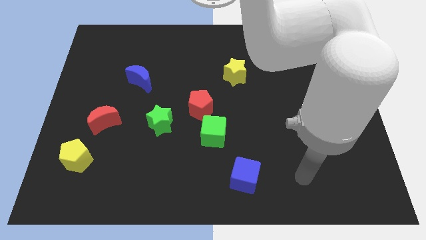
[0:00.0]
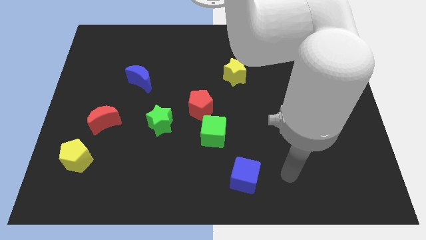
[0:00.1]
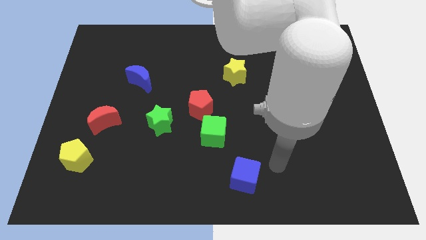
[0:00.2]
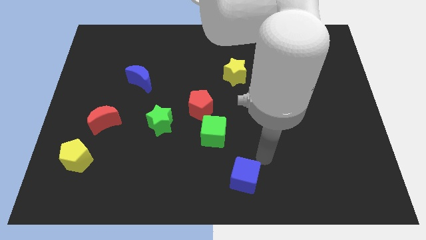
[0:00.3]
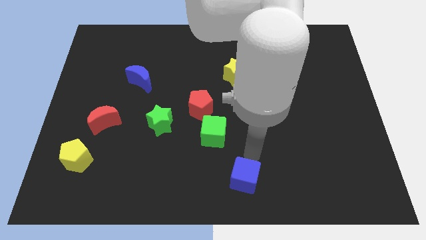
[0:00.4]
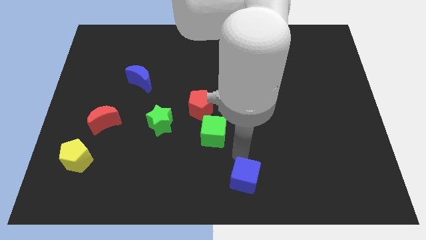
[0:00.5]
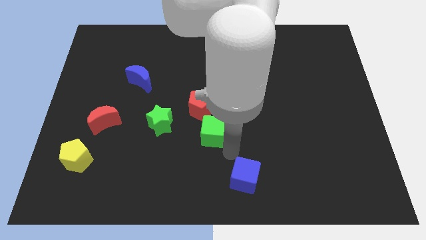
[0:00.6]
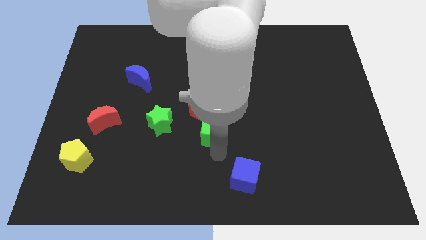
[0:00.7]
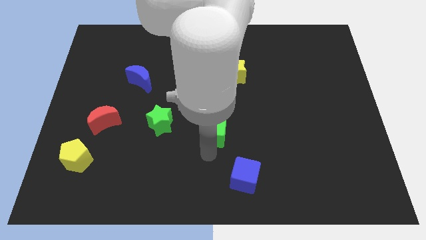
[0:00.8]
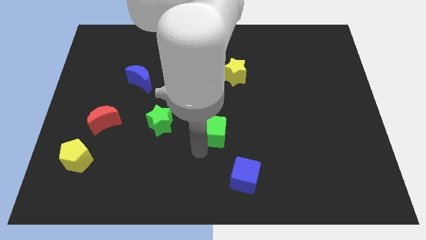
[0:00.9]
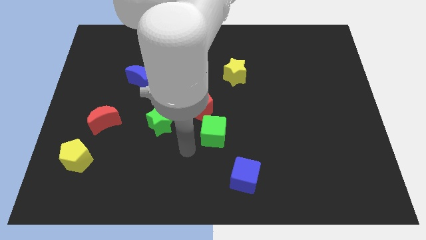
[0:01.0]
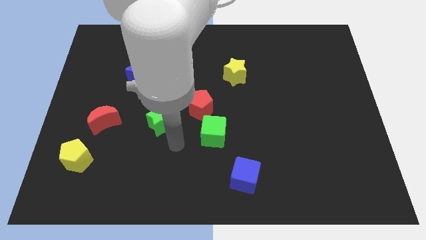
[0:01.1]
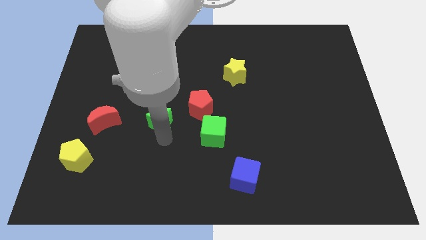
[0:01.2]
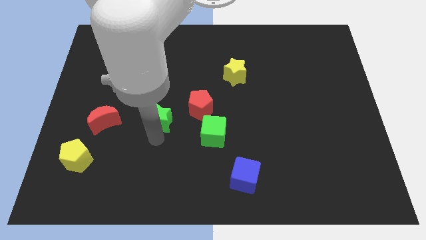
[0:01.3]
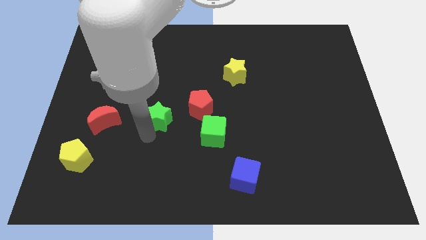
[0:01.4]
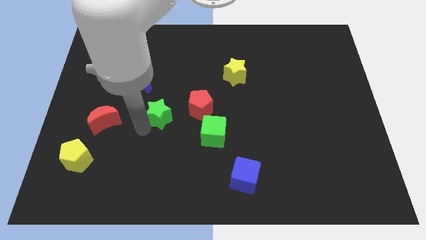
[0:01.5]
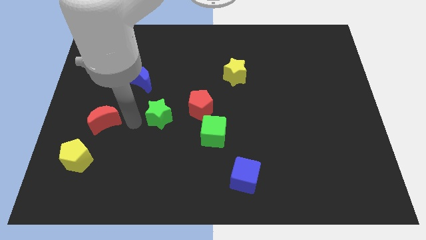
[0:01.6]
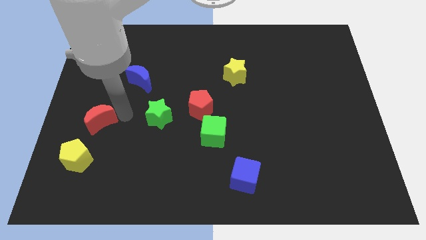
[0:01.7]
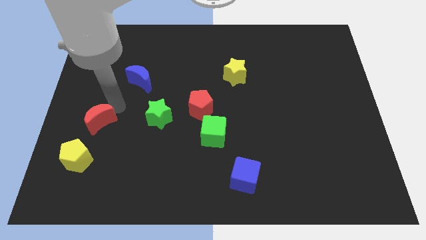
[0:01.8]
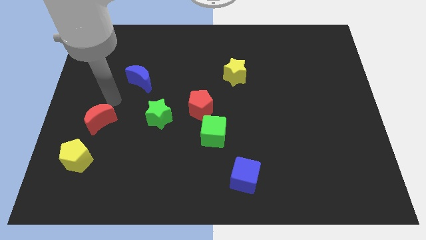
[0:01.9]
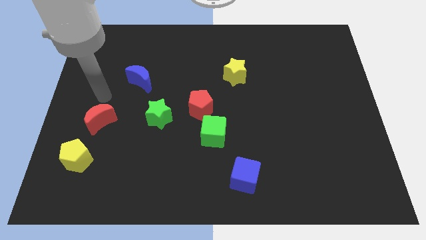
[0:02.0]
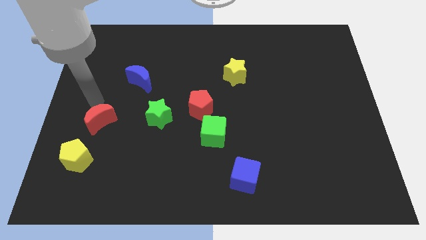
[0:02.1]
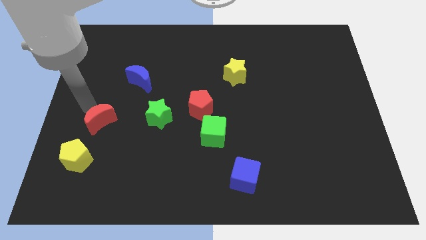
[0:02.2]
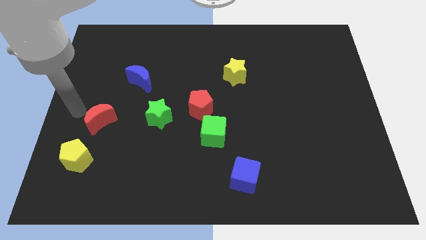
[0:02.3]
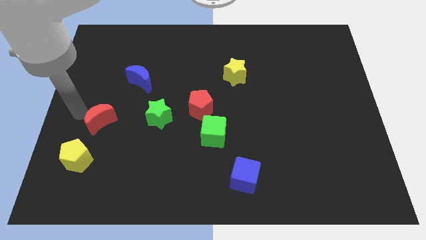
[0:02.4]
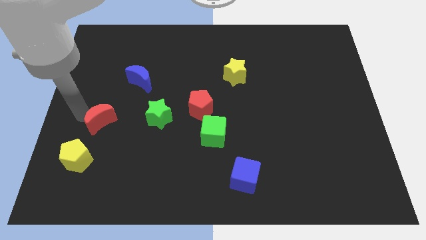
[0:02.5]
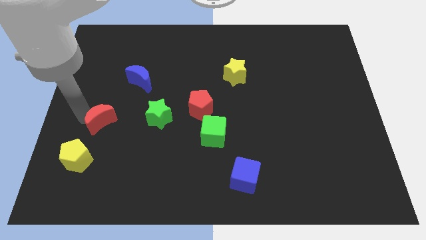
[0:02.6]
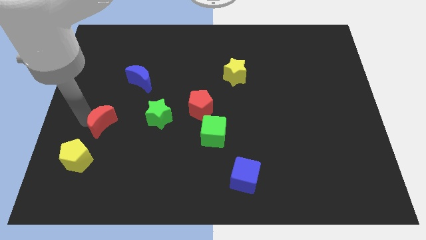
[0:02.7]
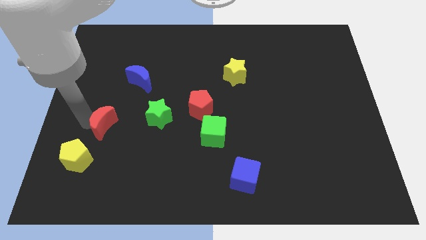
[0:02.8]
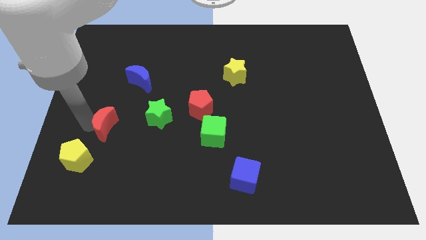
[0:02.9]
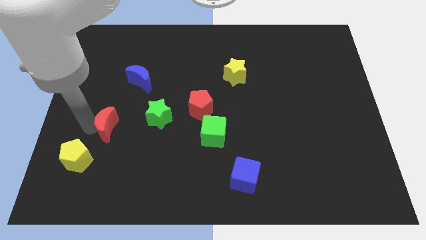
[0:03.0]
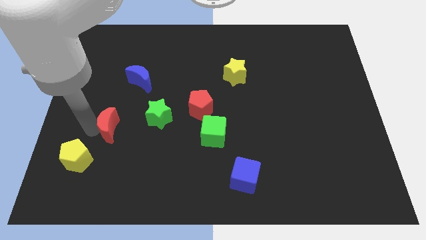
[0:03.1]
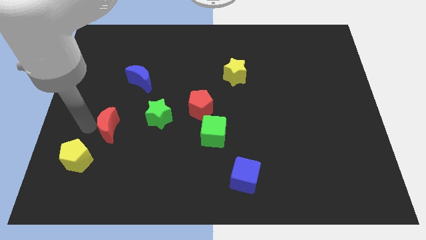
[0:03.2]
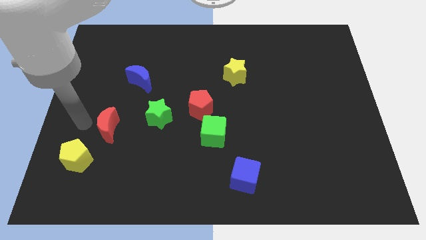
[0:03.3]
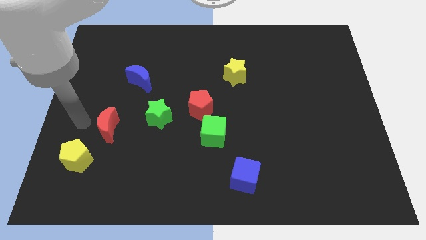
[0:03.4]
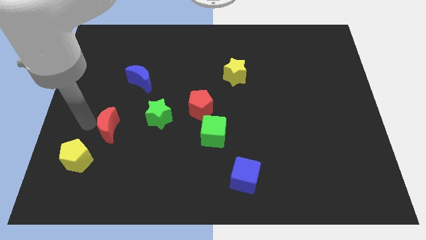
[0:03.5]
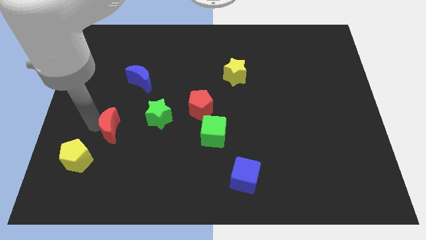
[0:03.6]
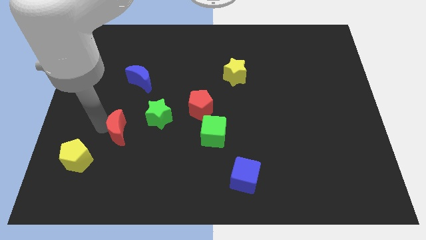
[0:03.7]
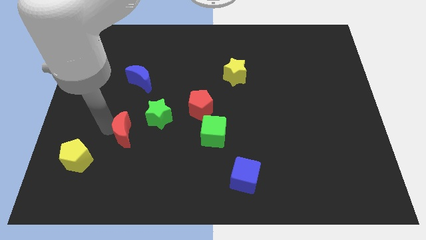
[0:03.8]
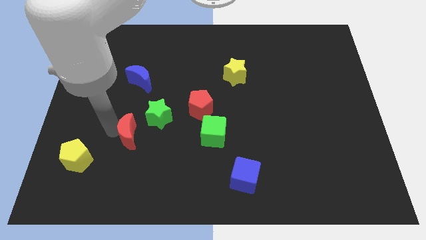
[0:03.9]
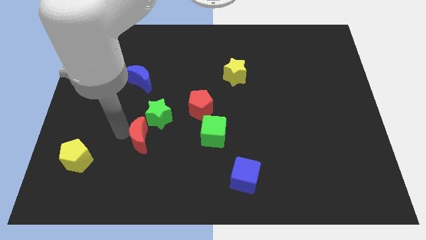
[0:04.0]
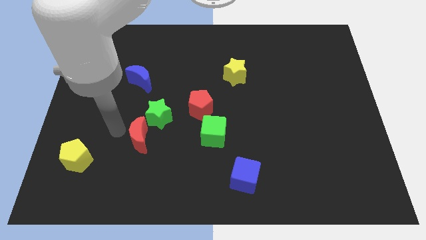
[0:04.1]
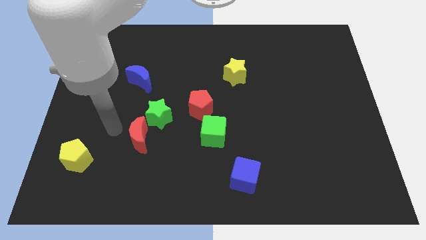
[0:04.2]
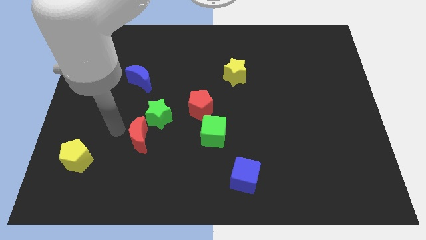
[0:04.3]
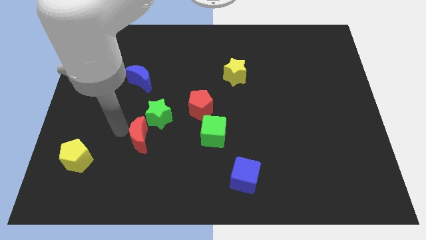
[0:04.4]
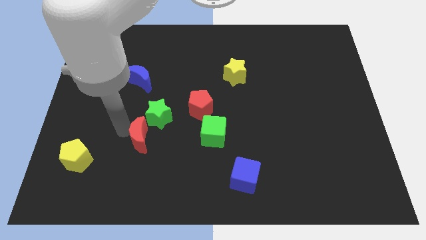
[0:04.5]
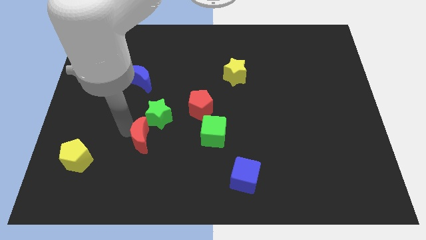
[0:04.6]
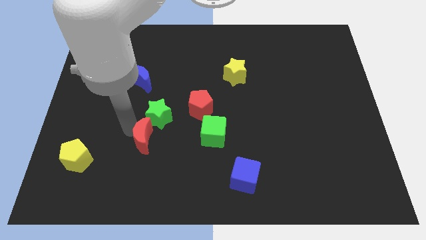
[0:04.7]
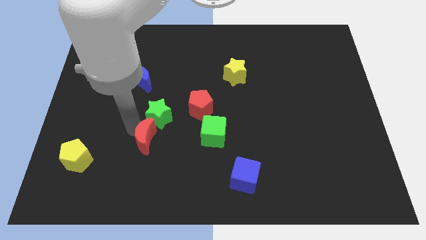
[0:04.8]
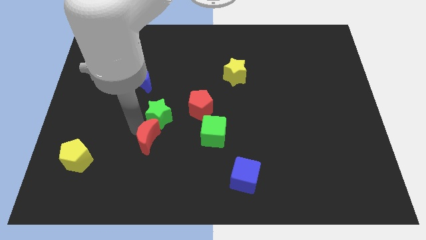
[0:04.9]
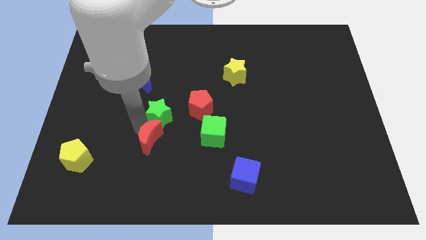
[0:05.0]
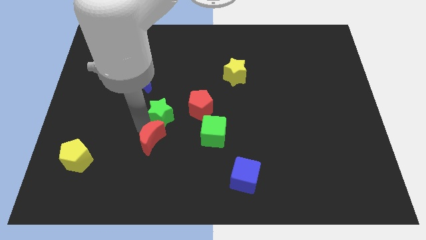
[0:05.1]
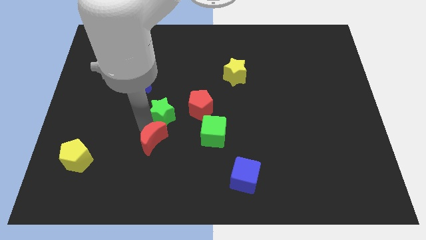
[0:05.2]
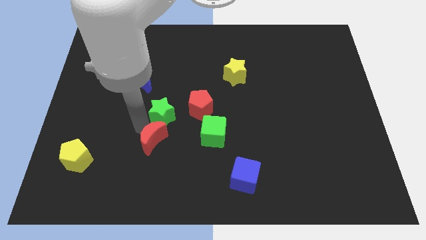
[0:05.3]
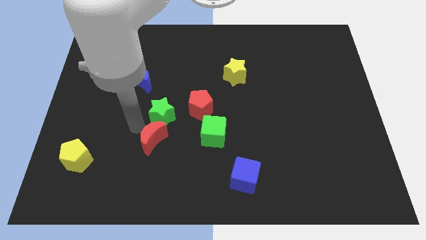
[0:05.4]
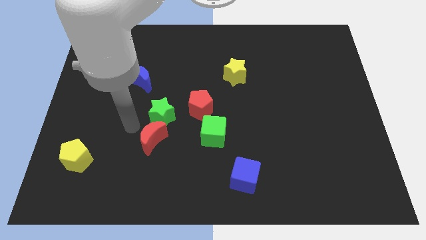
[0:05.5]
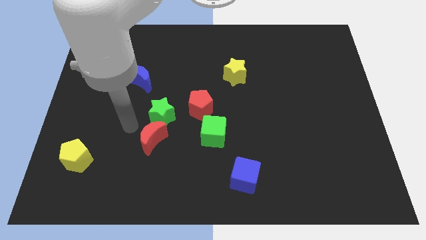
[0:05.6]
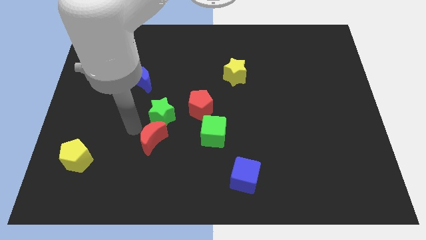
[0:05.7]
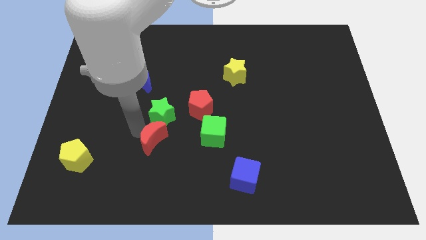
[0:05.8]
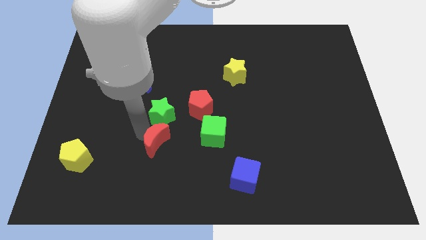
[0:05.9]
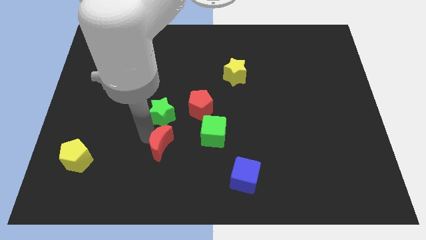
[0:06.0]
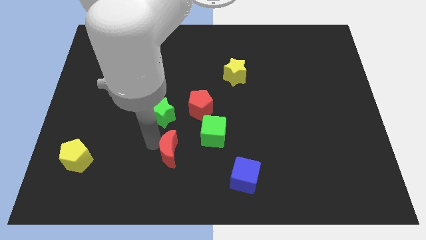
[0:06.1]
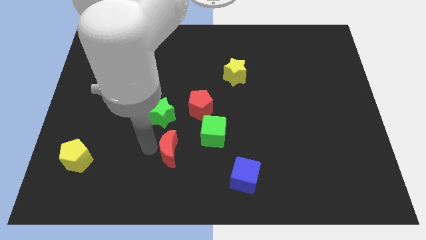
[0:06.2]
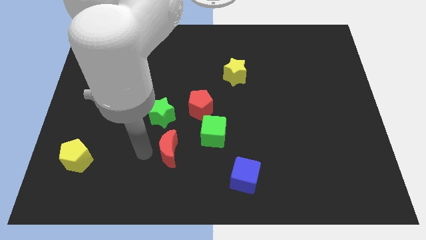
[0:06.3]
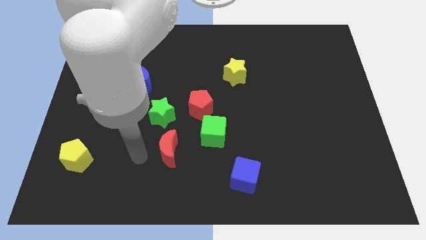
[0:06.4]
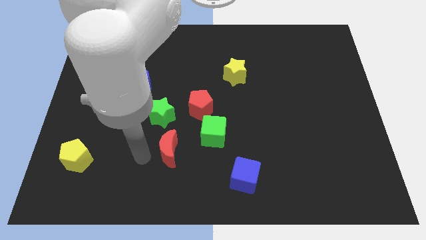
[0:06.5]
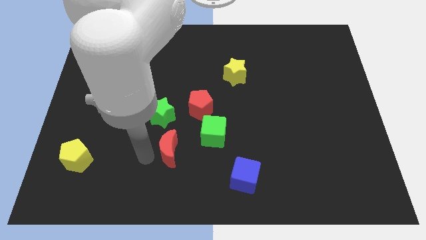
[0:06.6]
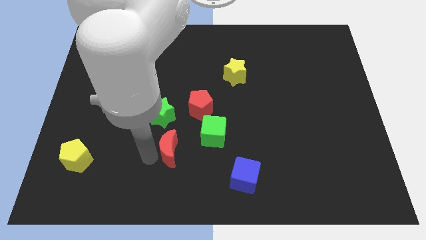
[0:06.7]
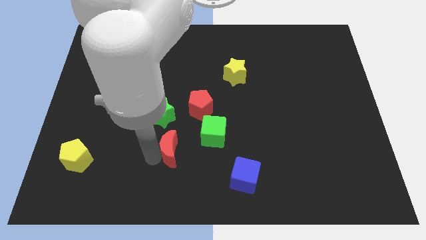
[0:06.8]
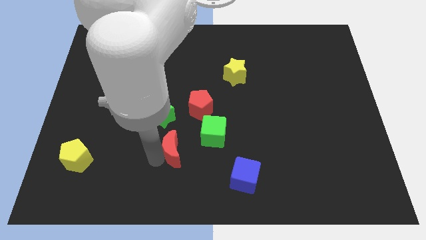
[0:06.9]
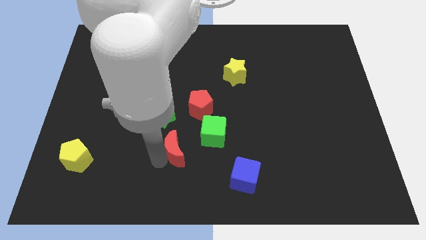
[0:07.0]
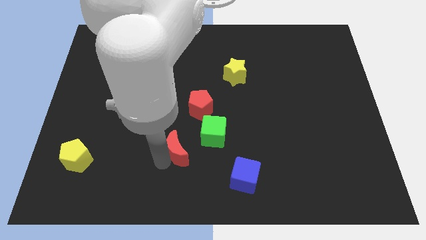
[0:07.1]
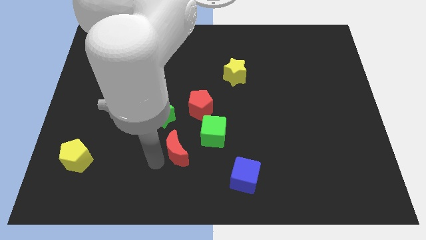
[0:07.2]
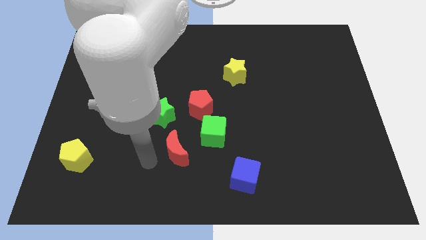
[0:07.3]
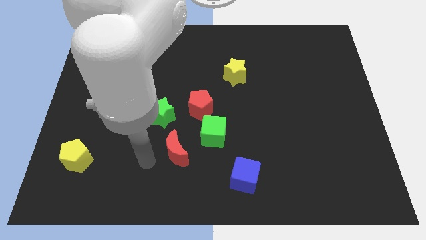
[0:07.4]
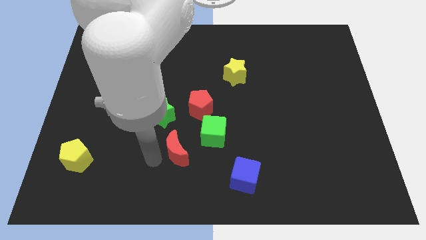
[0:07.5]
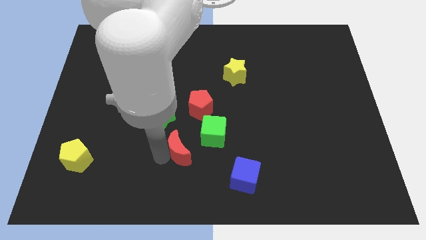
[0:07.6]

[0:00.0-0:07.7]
slide the red moon to the bottom side of the red pentagon
